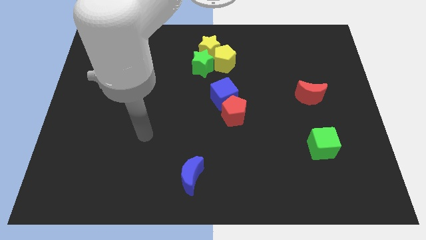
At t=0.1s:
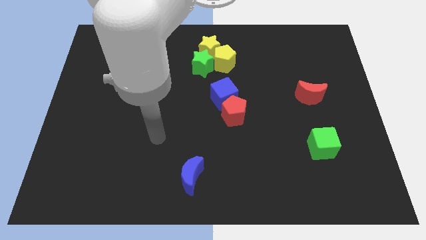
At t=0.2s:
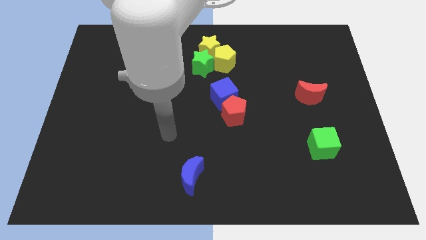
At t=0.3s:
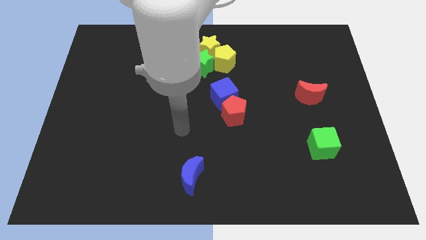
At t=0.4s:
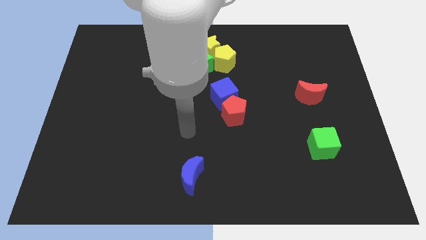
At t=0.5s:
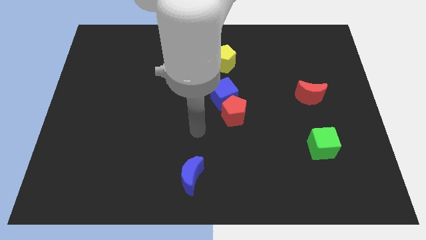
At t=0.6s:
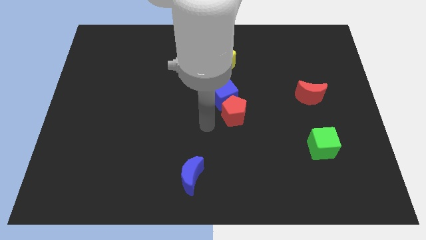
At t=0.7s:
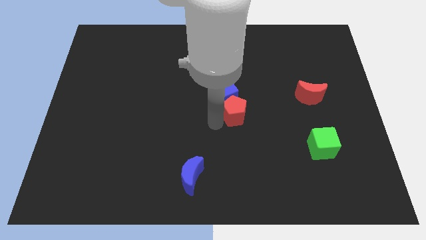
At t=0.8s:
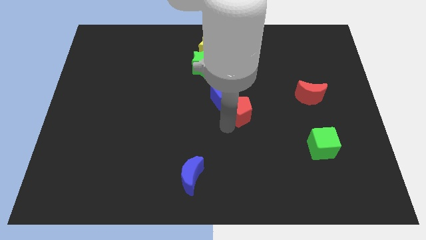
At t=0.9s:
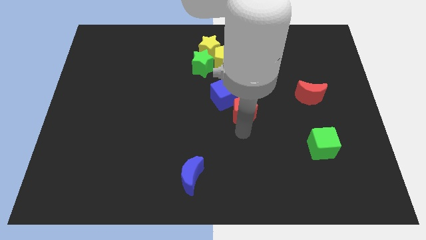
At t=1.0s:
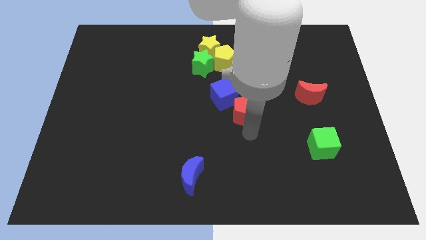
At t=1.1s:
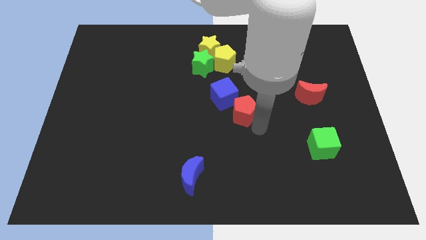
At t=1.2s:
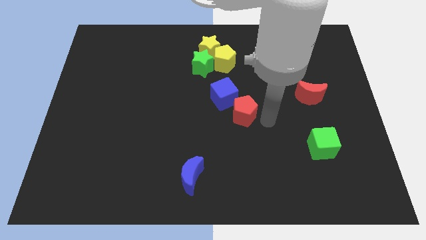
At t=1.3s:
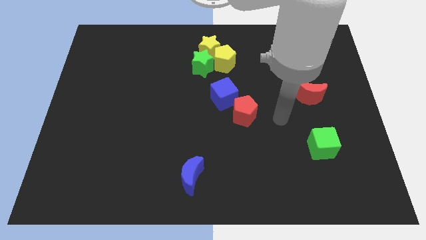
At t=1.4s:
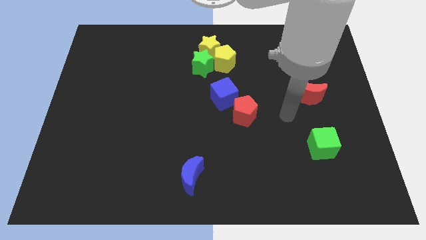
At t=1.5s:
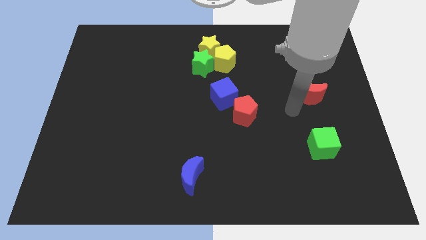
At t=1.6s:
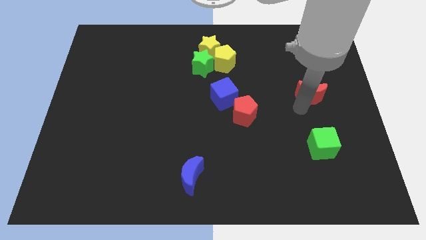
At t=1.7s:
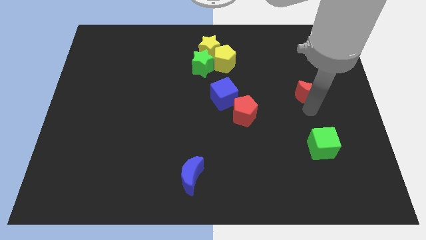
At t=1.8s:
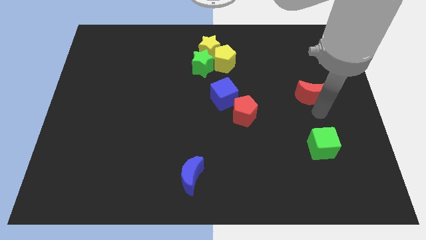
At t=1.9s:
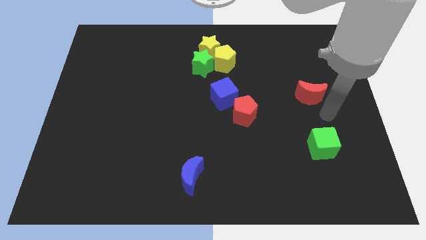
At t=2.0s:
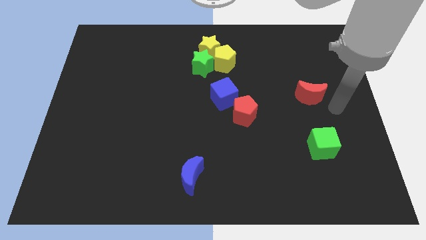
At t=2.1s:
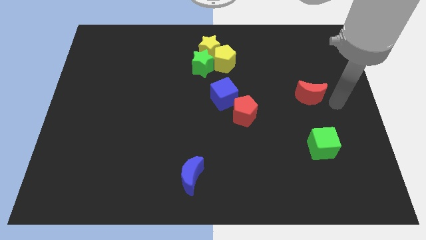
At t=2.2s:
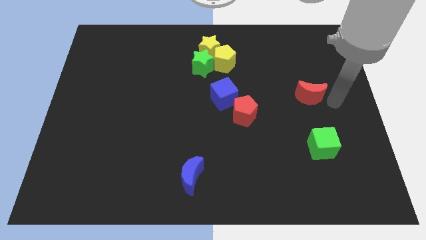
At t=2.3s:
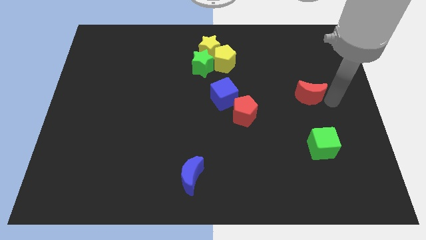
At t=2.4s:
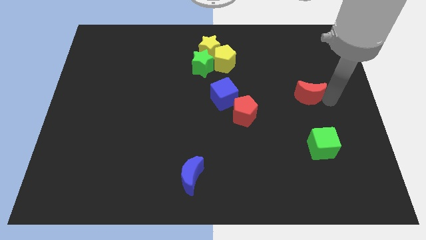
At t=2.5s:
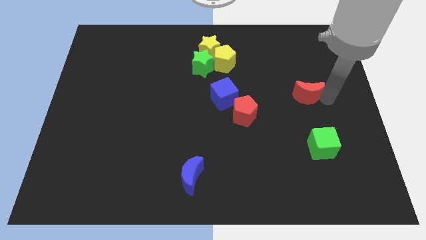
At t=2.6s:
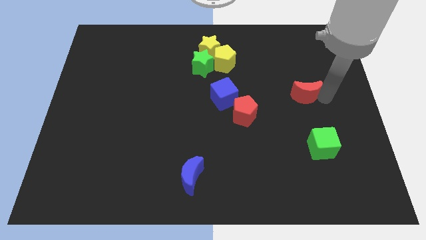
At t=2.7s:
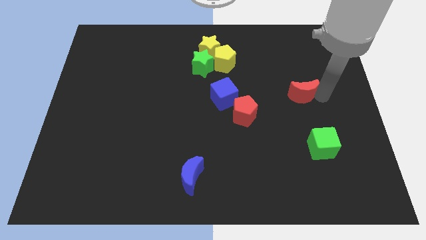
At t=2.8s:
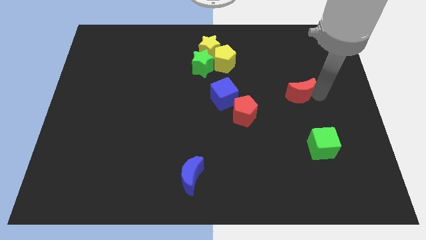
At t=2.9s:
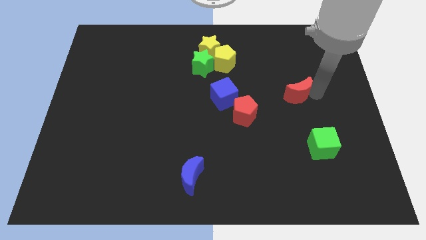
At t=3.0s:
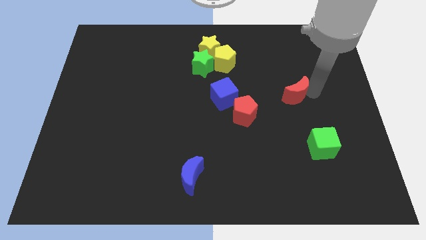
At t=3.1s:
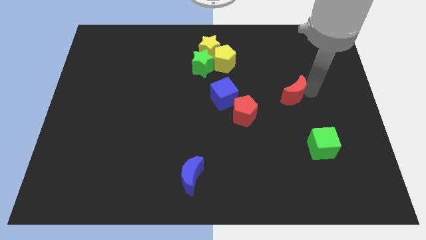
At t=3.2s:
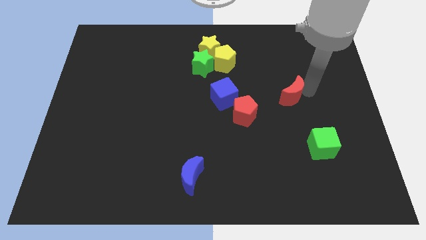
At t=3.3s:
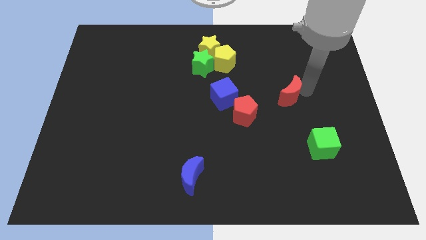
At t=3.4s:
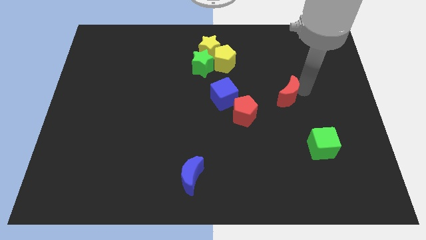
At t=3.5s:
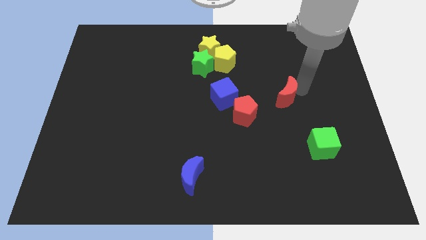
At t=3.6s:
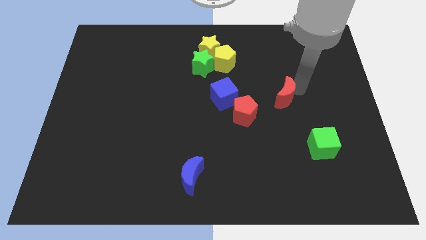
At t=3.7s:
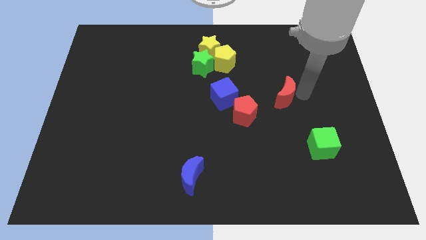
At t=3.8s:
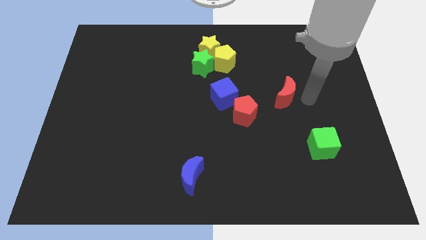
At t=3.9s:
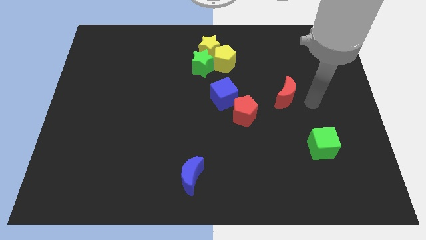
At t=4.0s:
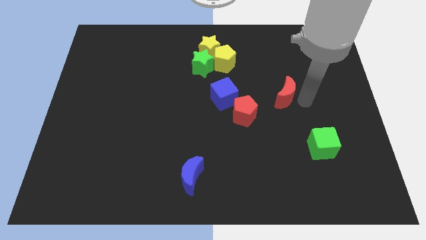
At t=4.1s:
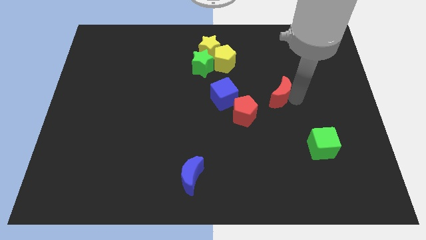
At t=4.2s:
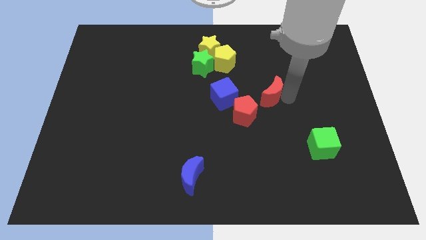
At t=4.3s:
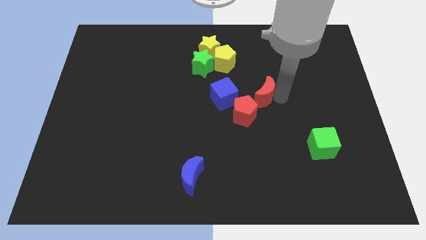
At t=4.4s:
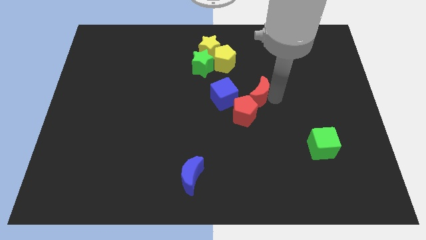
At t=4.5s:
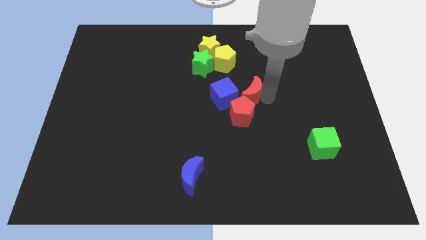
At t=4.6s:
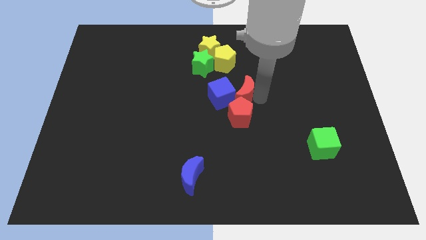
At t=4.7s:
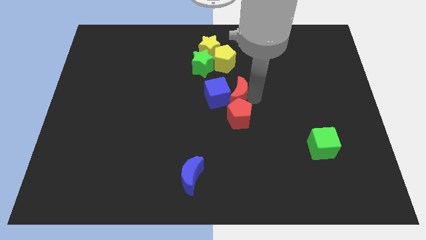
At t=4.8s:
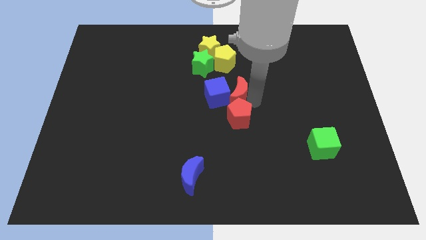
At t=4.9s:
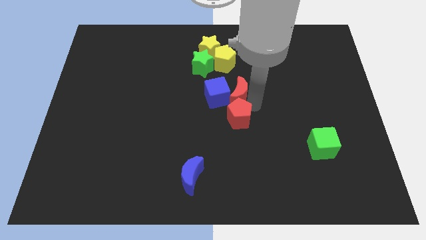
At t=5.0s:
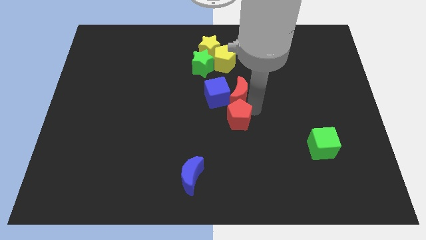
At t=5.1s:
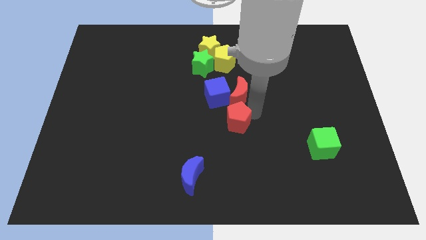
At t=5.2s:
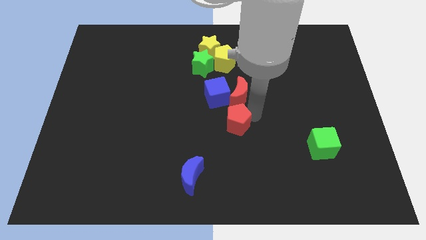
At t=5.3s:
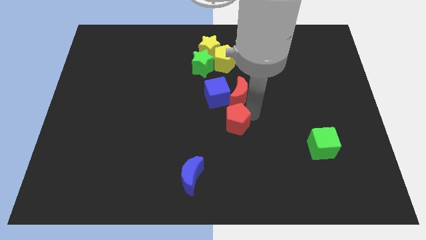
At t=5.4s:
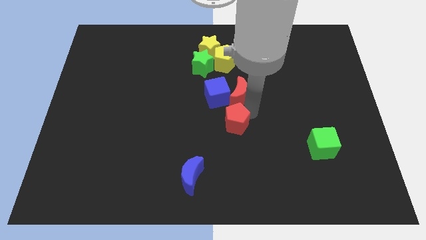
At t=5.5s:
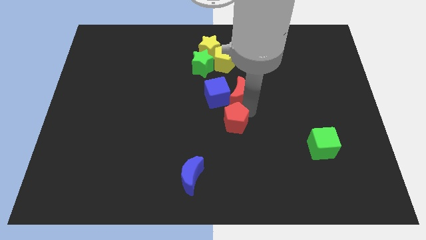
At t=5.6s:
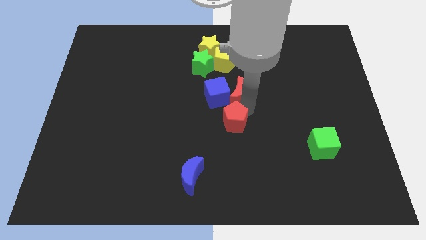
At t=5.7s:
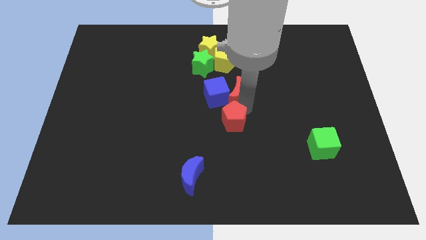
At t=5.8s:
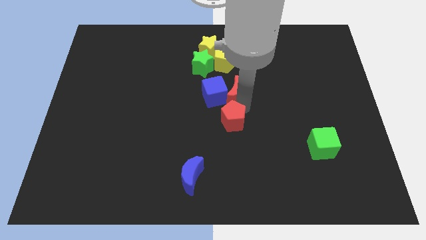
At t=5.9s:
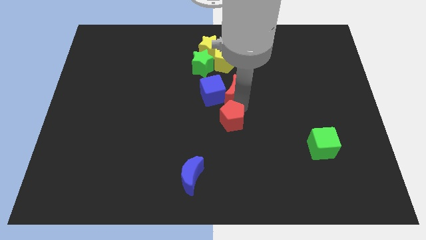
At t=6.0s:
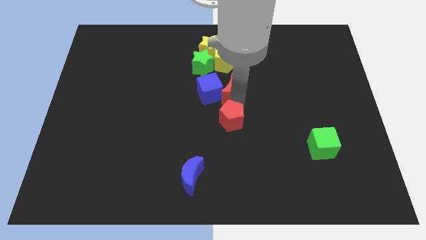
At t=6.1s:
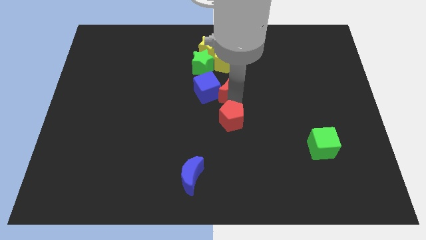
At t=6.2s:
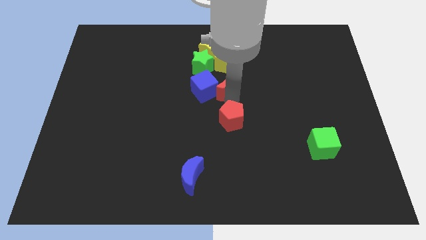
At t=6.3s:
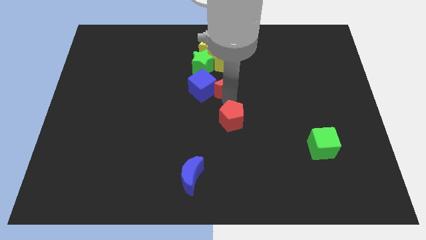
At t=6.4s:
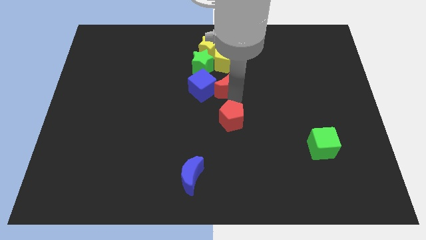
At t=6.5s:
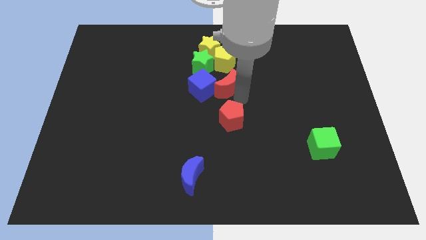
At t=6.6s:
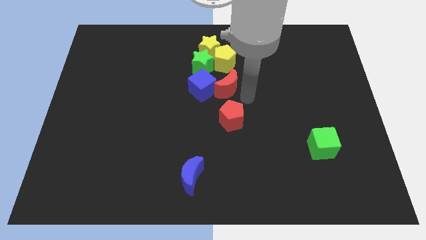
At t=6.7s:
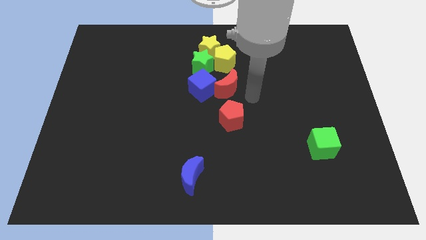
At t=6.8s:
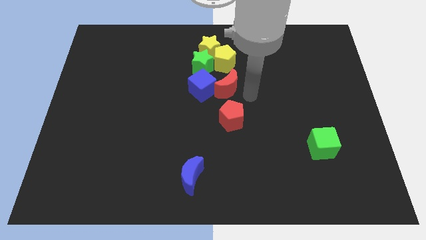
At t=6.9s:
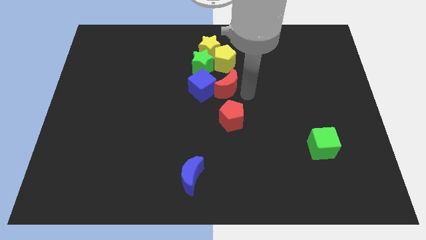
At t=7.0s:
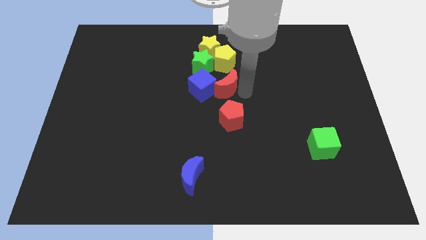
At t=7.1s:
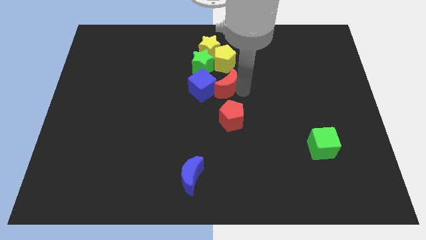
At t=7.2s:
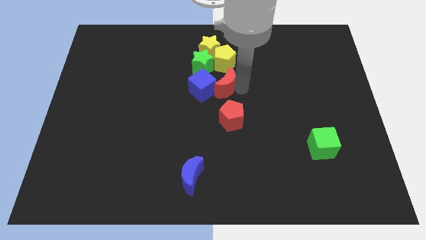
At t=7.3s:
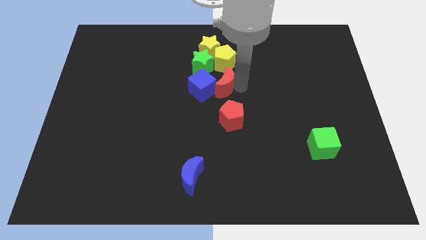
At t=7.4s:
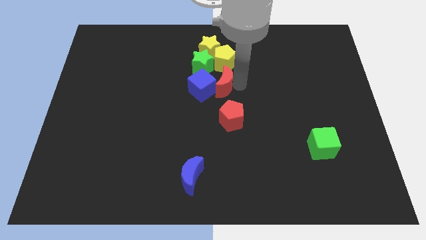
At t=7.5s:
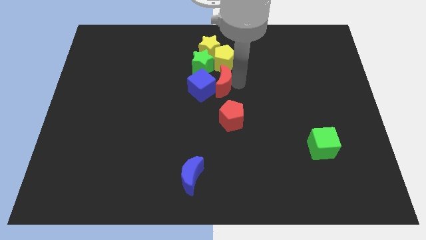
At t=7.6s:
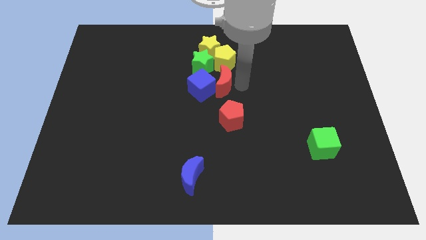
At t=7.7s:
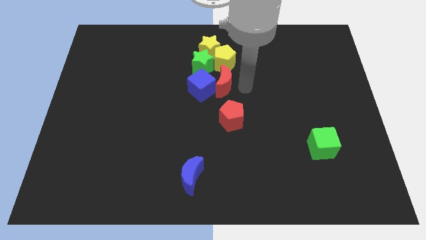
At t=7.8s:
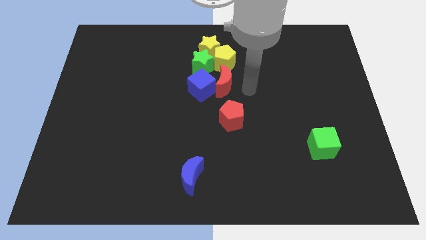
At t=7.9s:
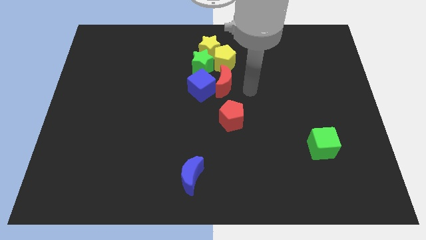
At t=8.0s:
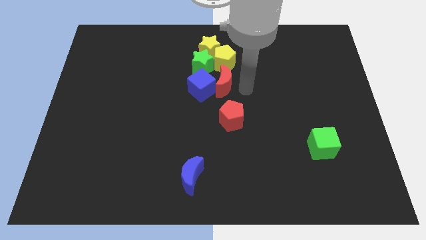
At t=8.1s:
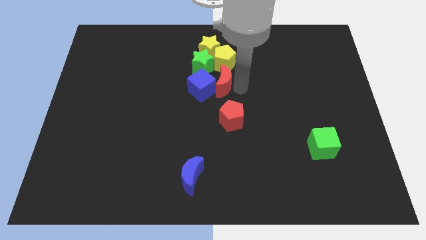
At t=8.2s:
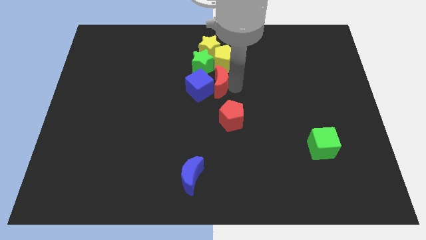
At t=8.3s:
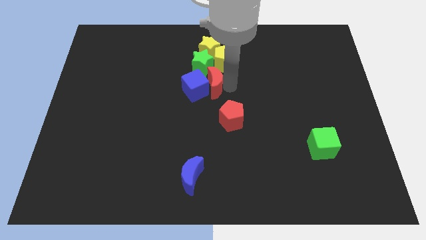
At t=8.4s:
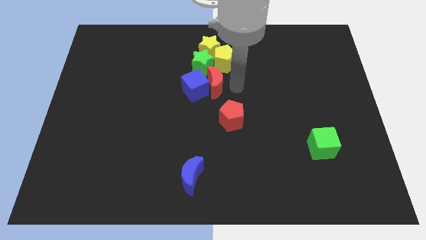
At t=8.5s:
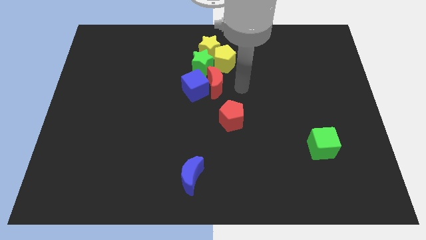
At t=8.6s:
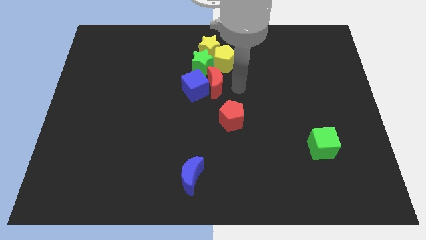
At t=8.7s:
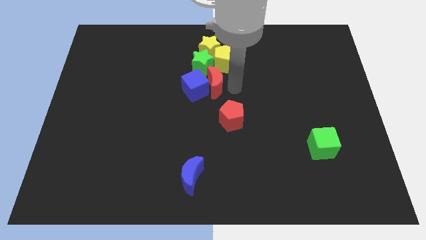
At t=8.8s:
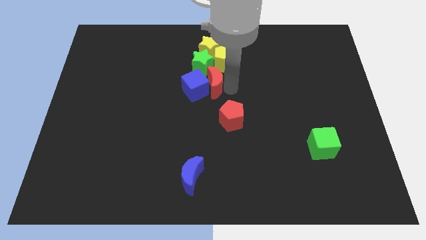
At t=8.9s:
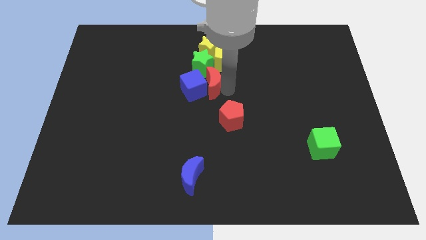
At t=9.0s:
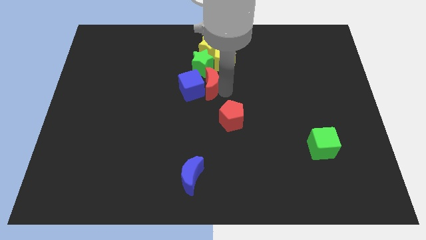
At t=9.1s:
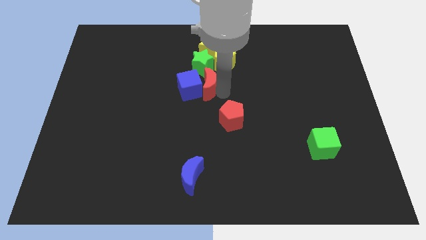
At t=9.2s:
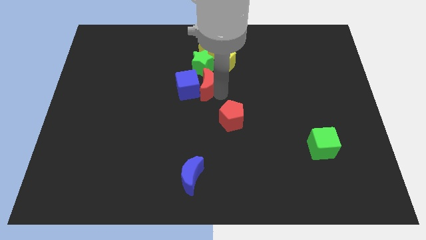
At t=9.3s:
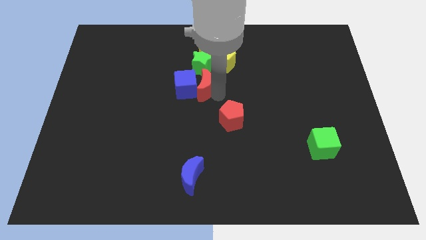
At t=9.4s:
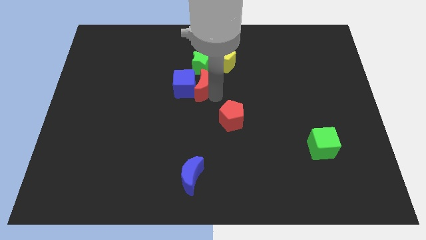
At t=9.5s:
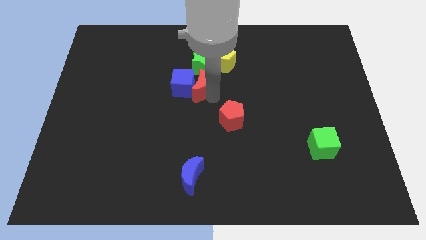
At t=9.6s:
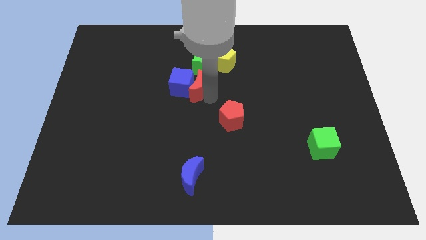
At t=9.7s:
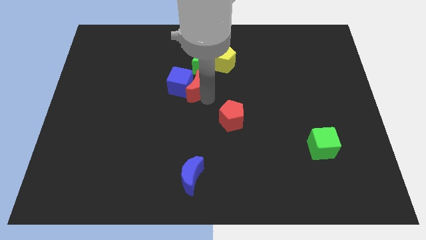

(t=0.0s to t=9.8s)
push the red moon diagonally down and to the left of the green star
